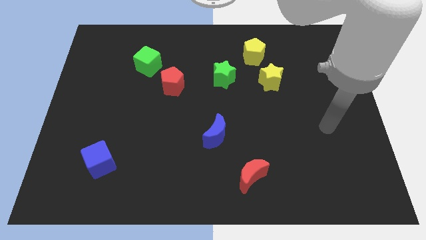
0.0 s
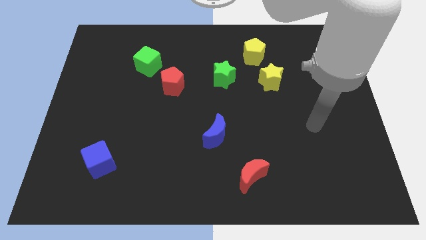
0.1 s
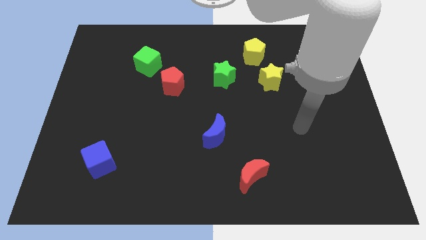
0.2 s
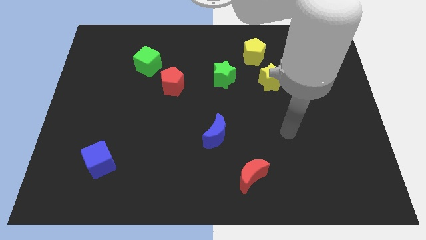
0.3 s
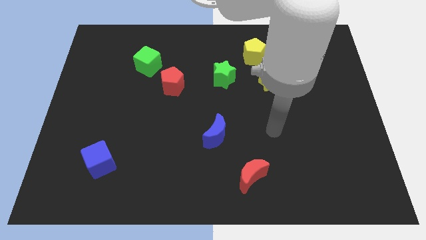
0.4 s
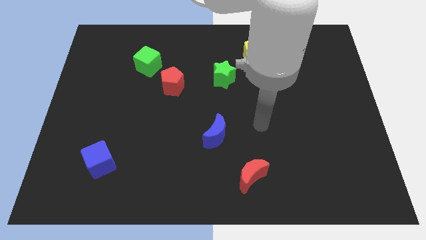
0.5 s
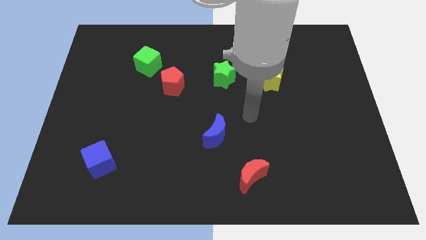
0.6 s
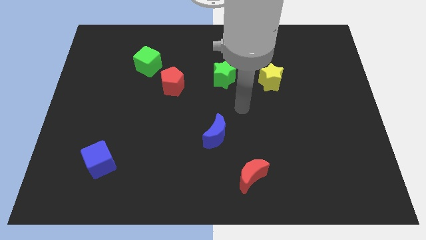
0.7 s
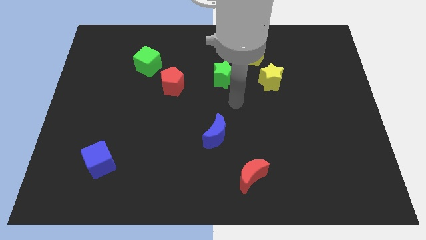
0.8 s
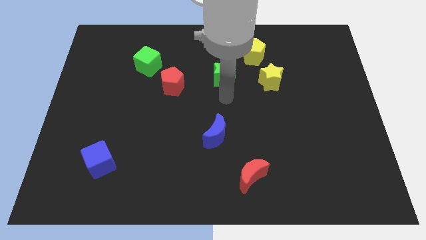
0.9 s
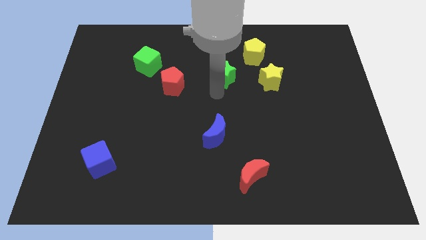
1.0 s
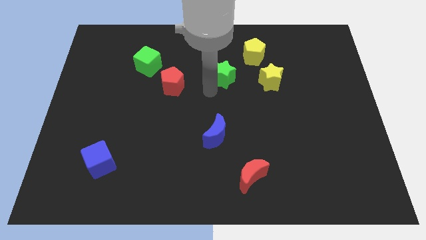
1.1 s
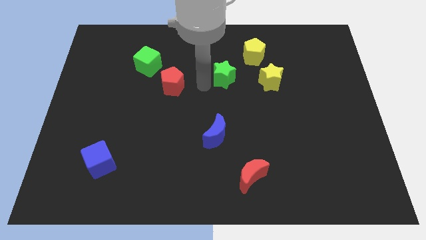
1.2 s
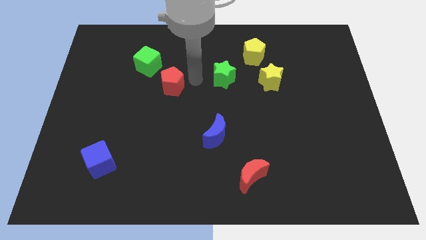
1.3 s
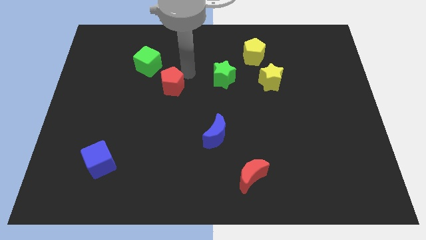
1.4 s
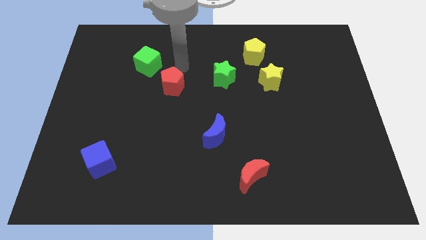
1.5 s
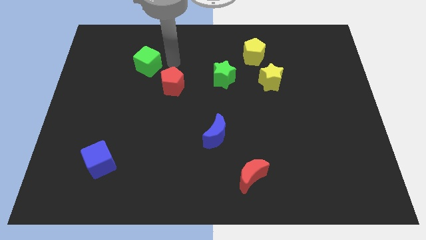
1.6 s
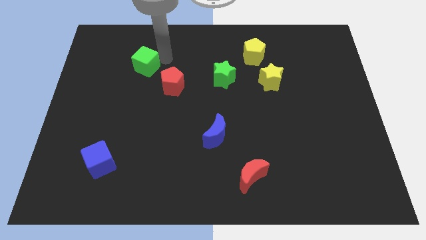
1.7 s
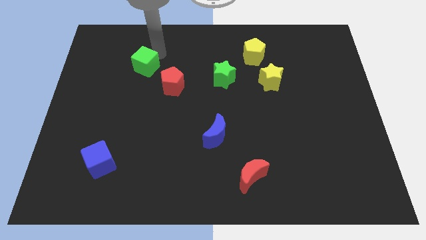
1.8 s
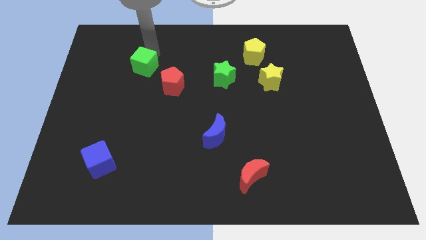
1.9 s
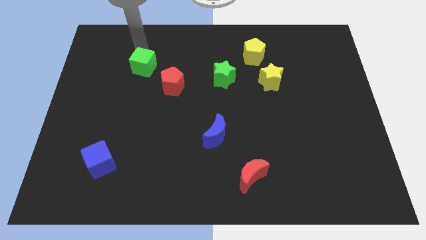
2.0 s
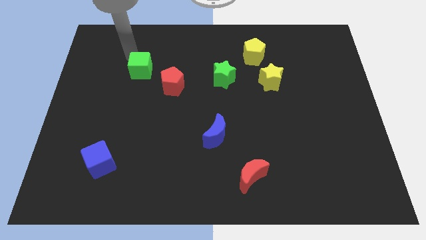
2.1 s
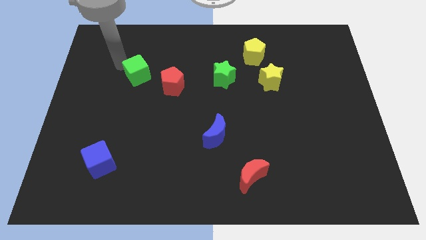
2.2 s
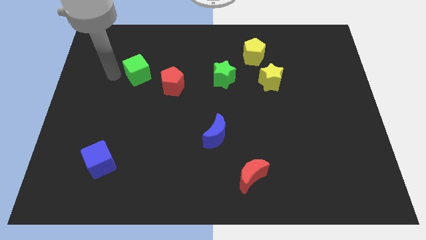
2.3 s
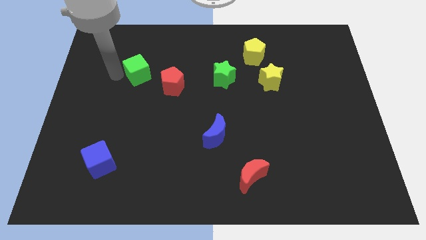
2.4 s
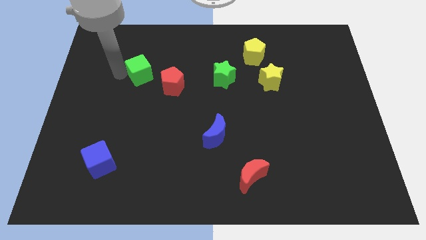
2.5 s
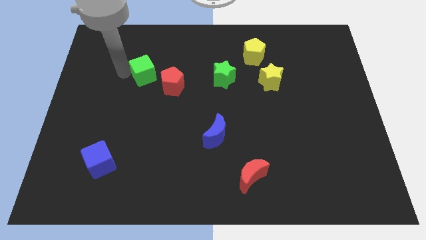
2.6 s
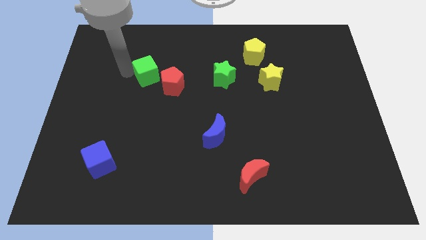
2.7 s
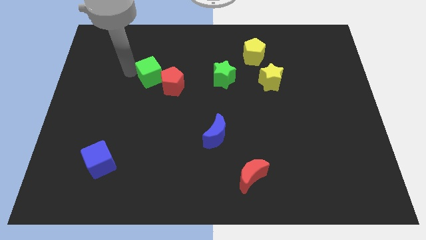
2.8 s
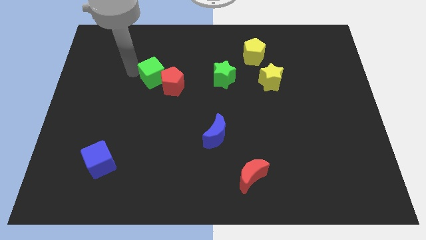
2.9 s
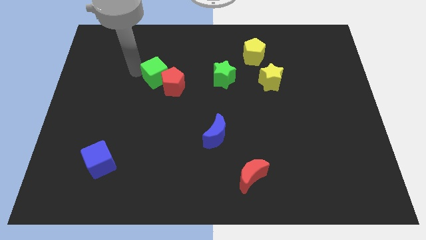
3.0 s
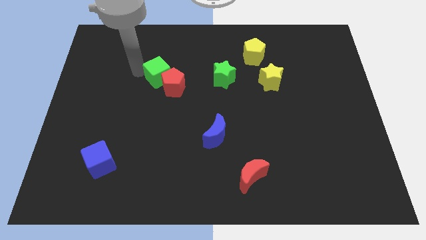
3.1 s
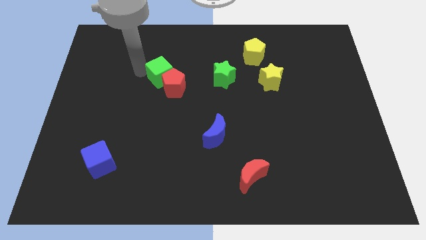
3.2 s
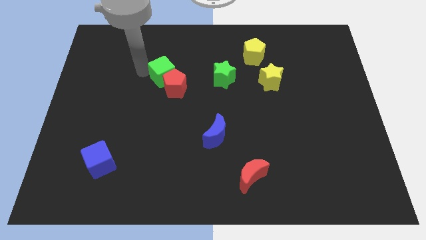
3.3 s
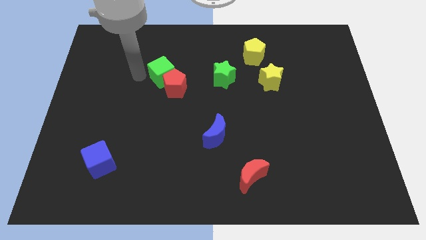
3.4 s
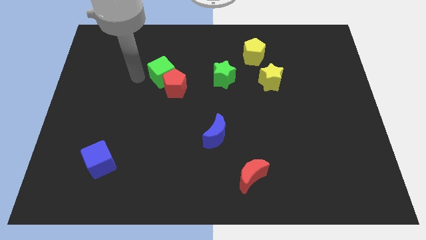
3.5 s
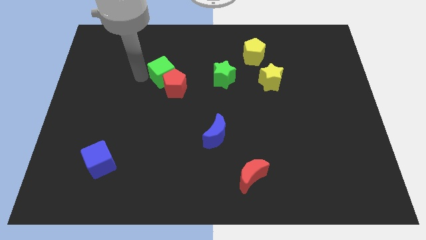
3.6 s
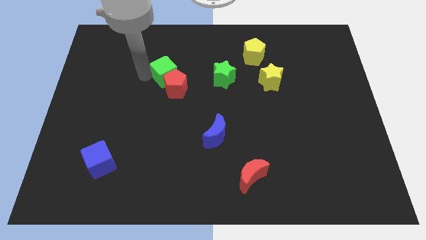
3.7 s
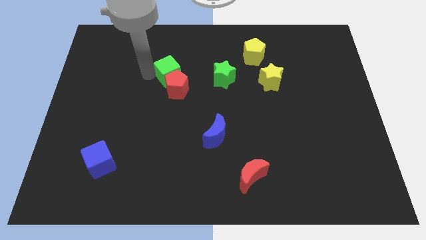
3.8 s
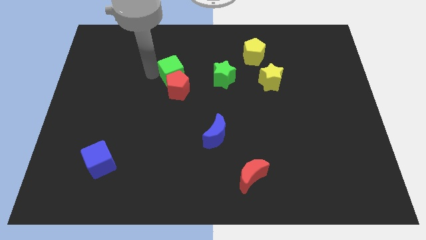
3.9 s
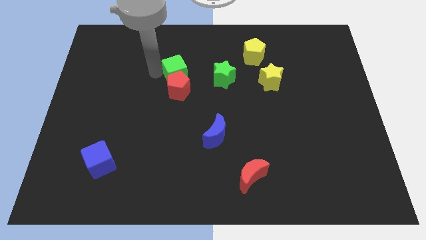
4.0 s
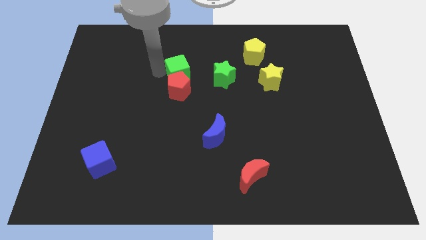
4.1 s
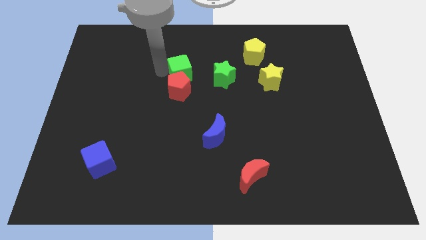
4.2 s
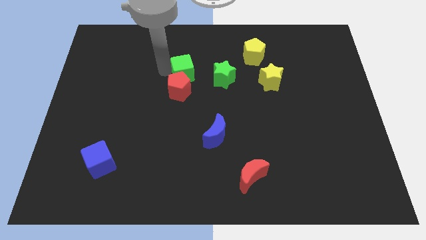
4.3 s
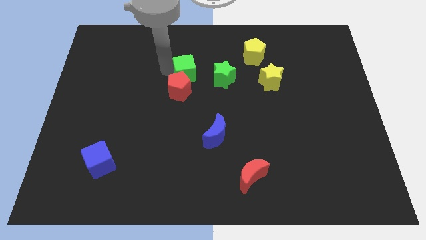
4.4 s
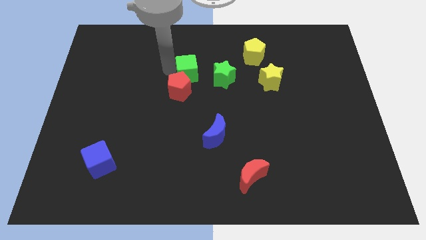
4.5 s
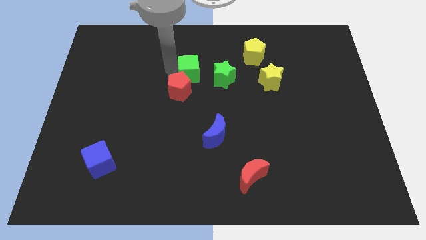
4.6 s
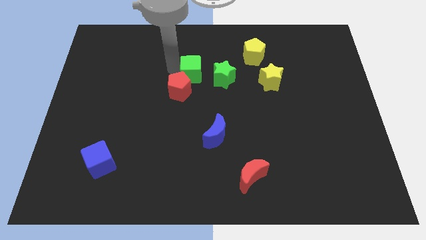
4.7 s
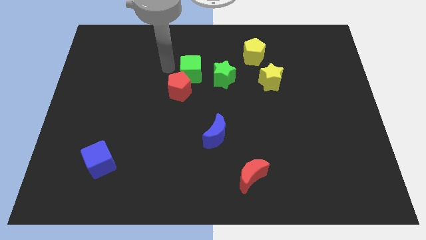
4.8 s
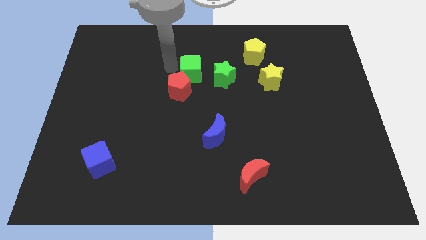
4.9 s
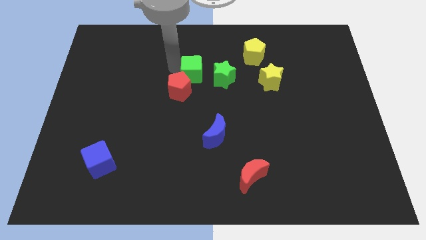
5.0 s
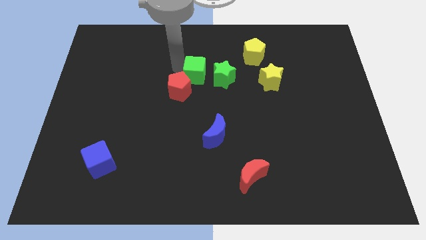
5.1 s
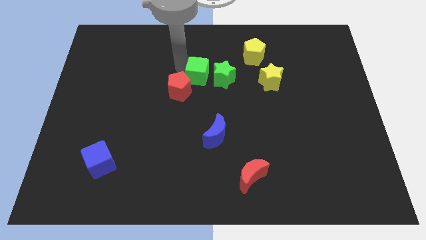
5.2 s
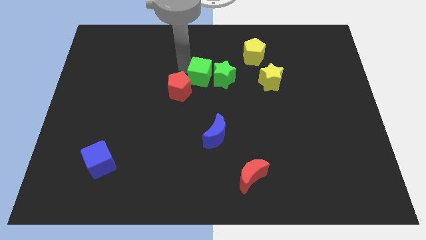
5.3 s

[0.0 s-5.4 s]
move the green cube towards the green star

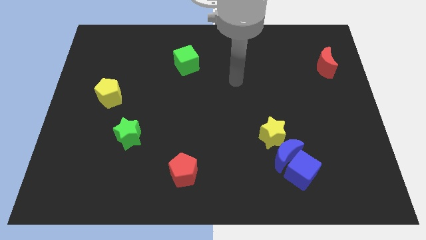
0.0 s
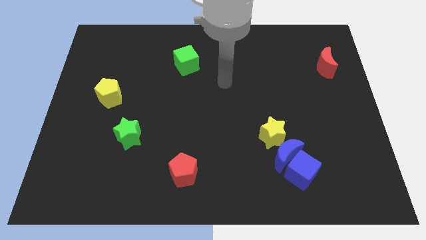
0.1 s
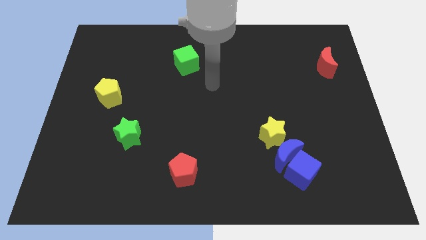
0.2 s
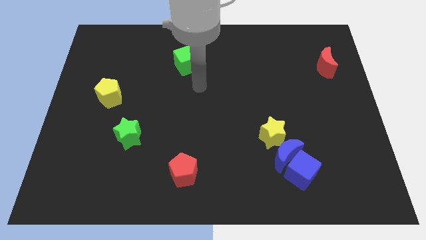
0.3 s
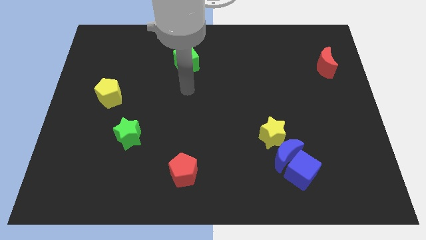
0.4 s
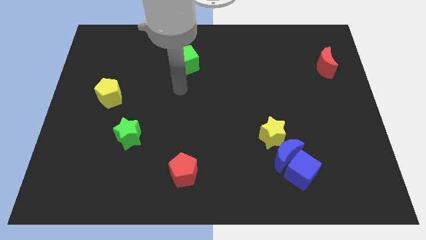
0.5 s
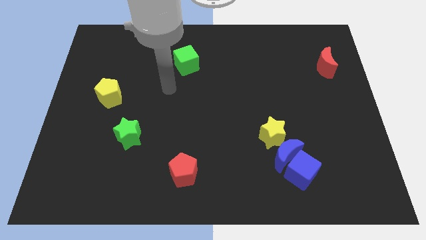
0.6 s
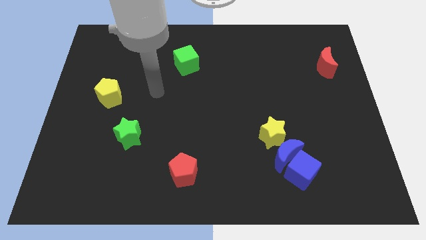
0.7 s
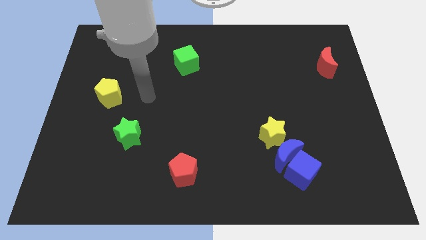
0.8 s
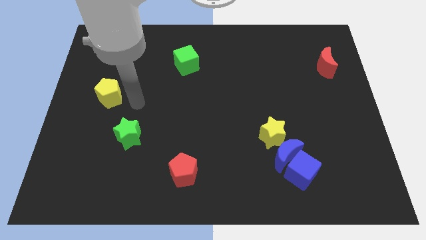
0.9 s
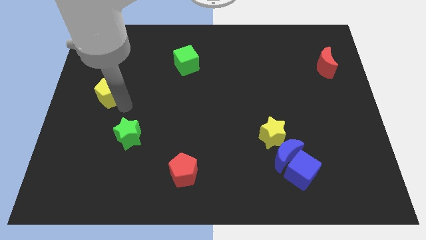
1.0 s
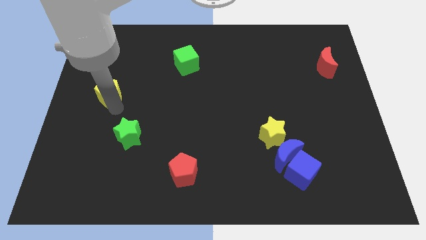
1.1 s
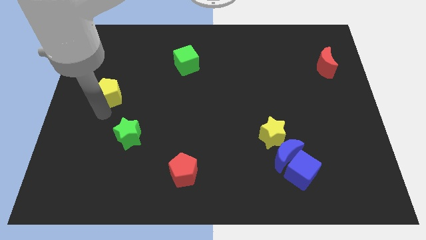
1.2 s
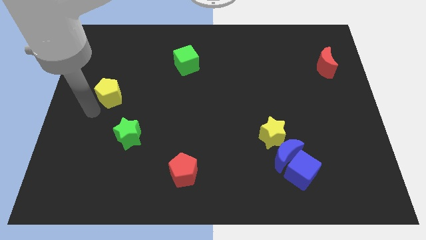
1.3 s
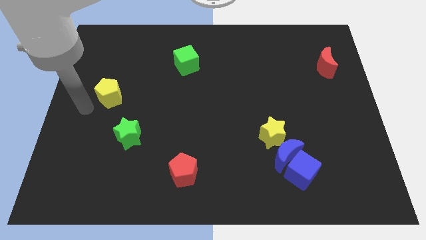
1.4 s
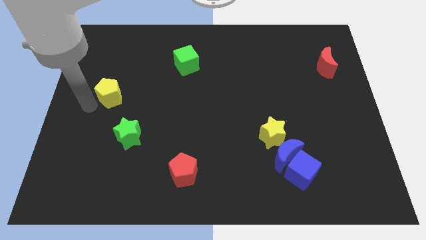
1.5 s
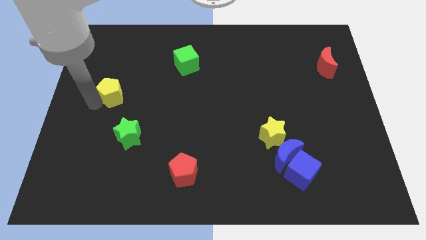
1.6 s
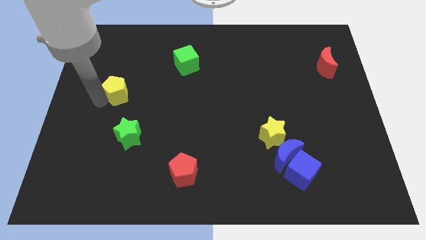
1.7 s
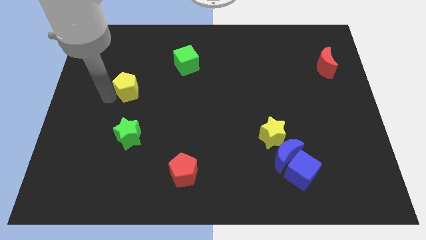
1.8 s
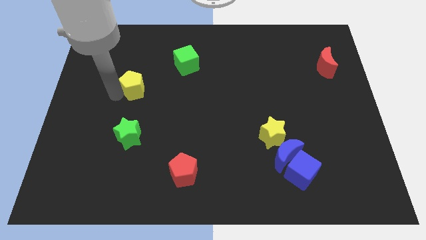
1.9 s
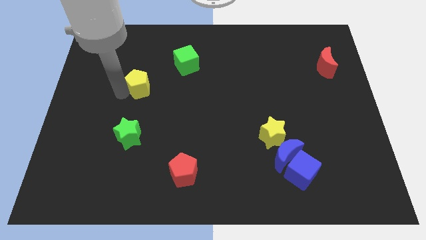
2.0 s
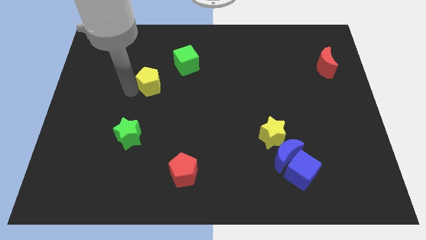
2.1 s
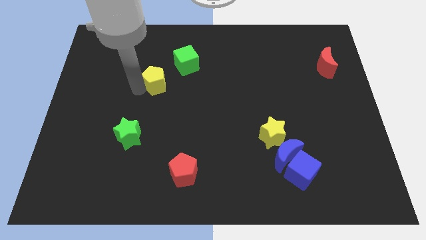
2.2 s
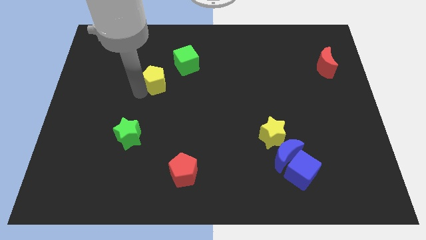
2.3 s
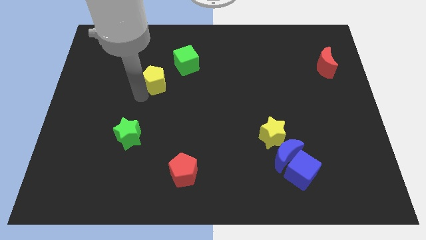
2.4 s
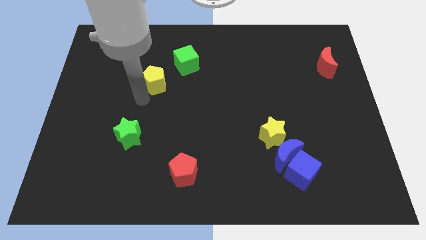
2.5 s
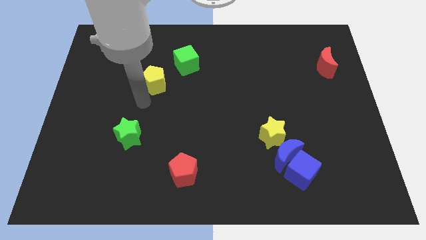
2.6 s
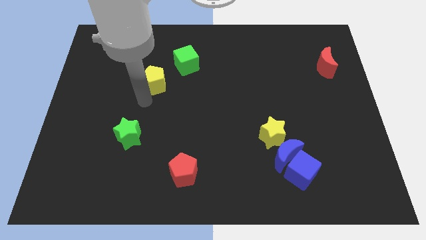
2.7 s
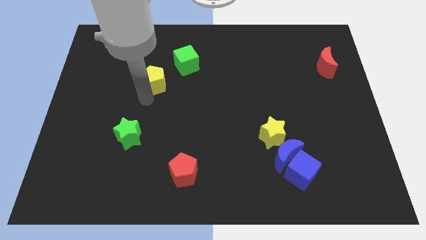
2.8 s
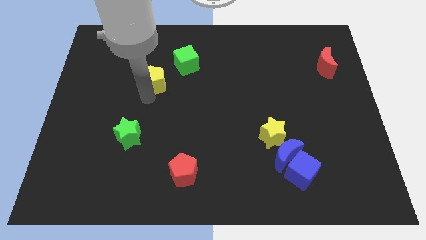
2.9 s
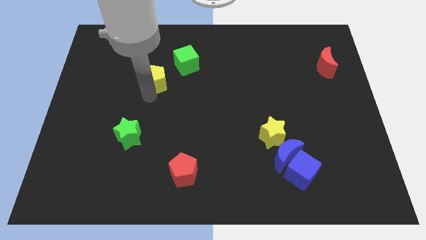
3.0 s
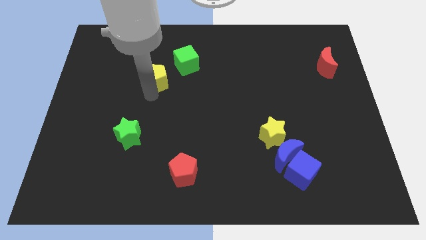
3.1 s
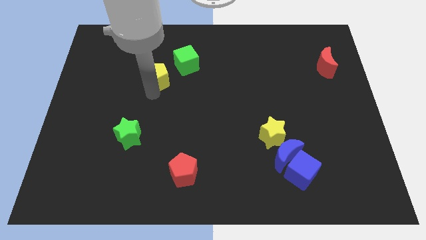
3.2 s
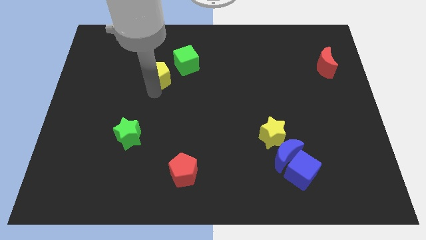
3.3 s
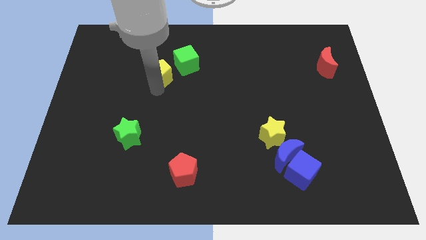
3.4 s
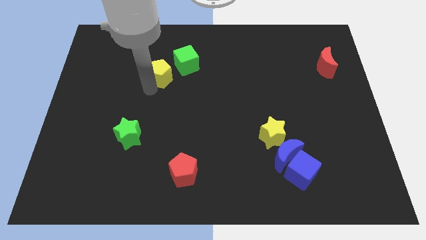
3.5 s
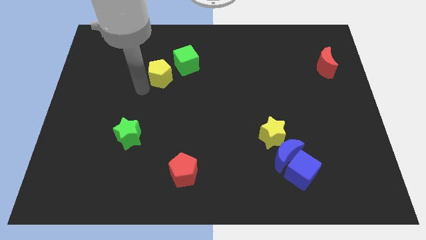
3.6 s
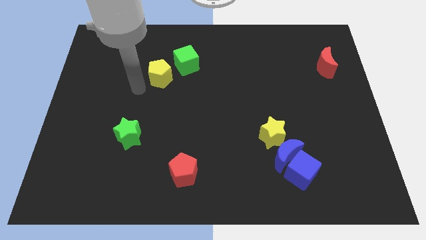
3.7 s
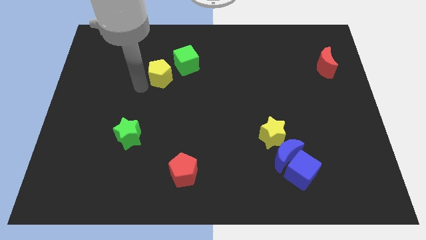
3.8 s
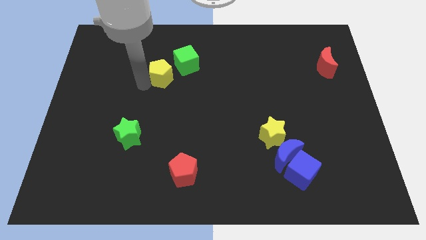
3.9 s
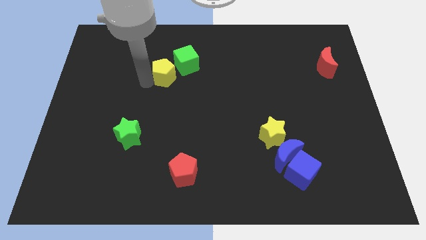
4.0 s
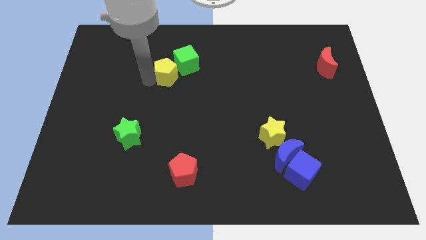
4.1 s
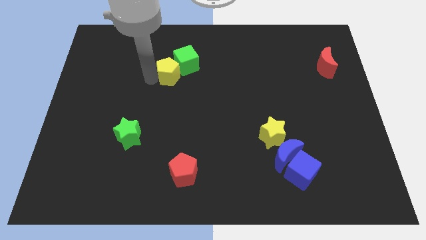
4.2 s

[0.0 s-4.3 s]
move the yellow pentagon next to the green cube
